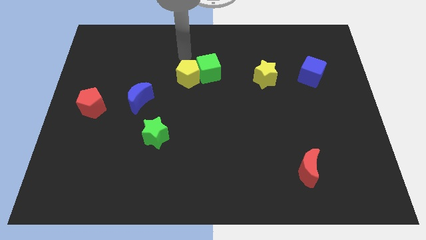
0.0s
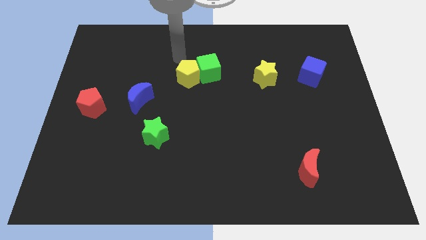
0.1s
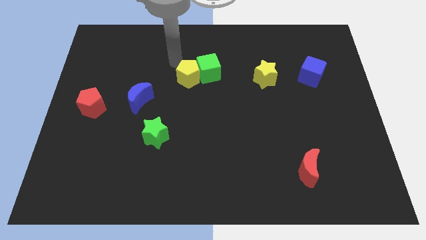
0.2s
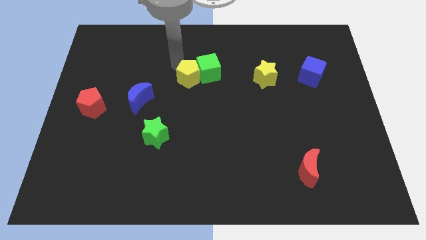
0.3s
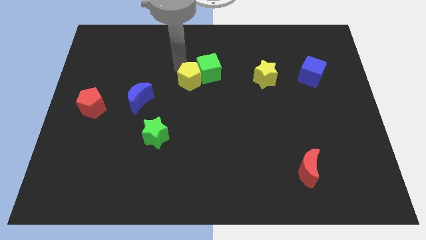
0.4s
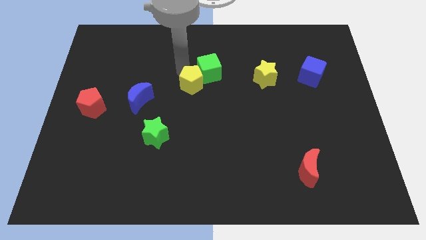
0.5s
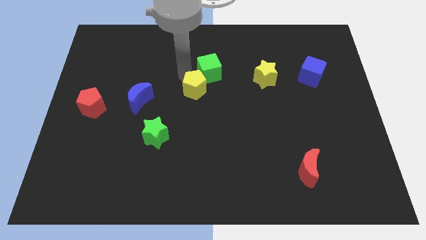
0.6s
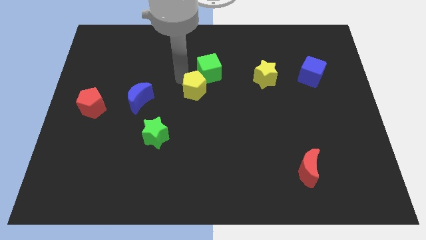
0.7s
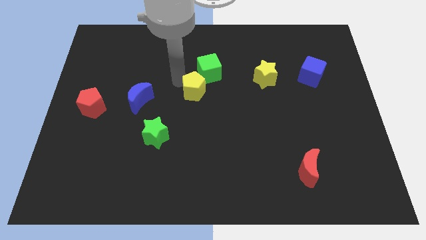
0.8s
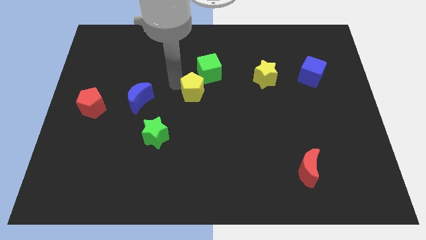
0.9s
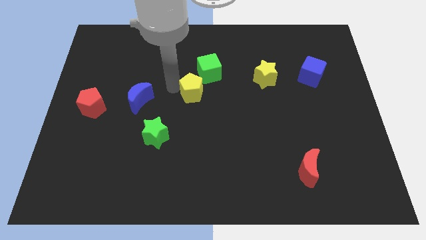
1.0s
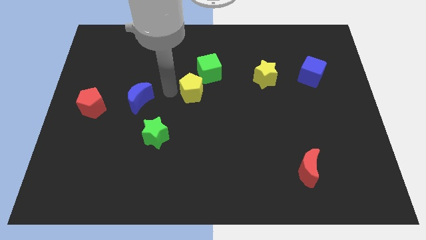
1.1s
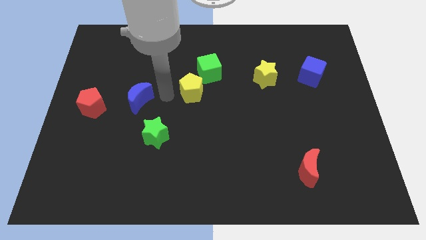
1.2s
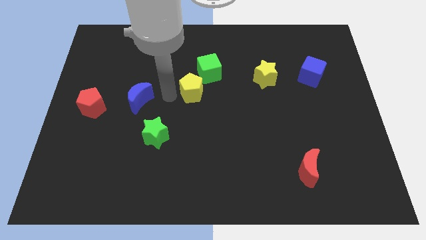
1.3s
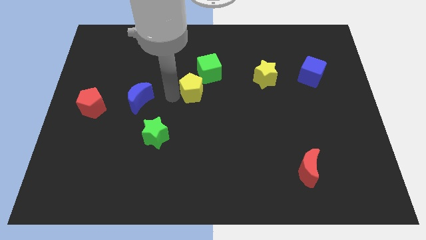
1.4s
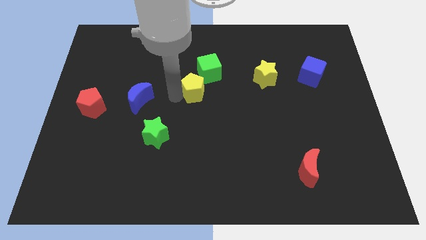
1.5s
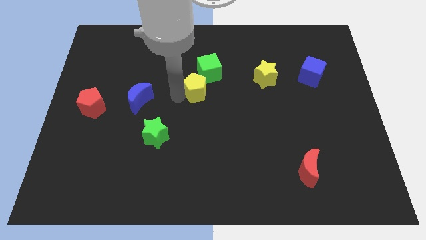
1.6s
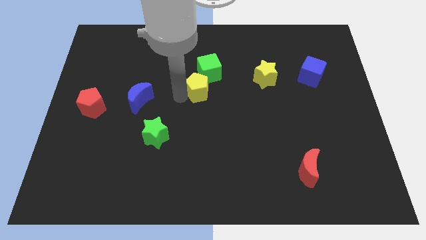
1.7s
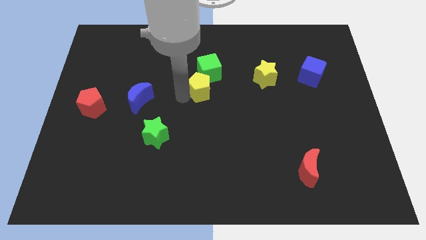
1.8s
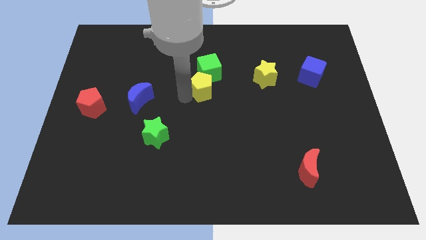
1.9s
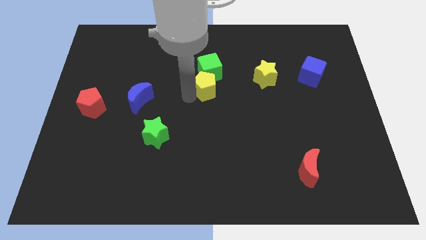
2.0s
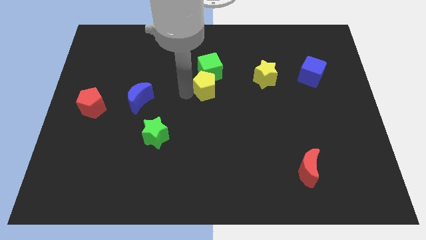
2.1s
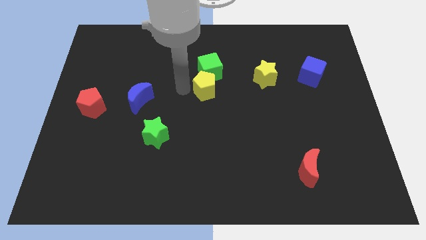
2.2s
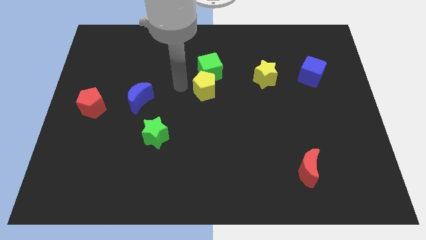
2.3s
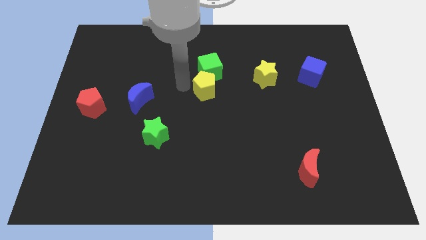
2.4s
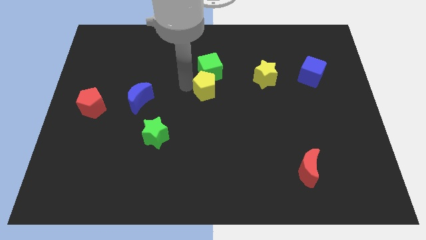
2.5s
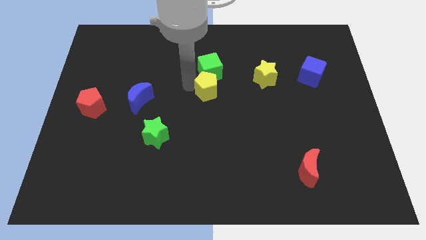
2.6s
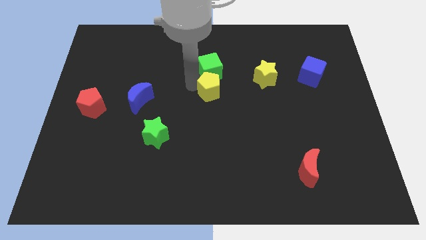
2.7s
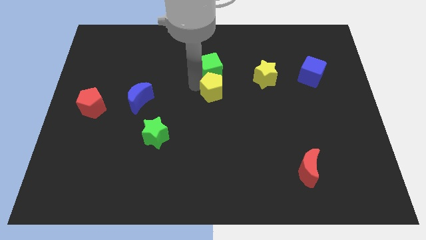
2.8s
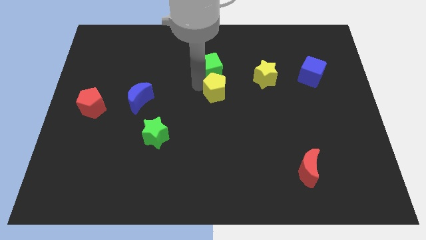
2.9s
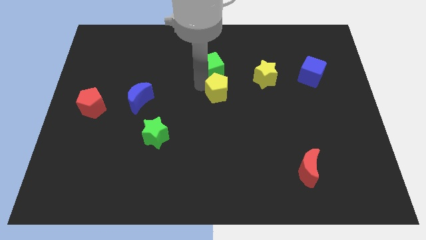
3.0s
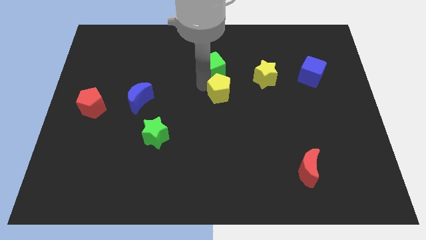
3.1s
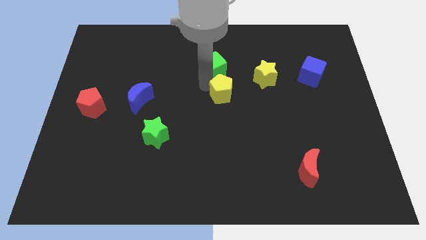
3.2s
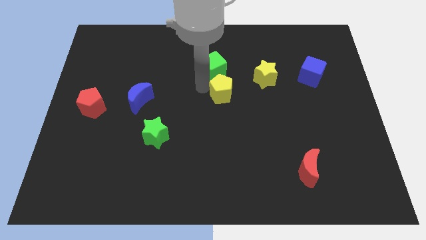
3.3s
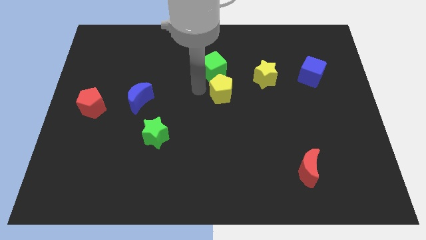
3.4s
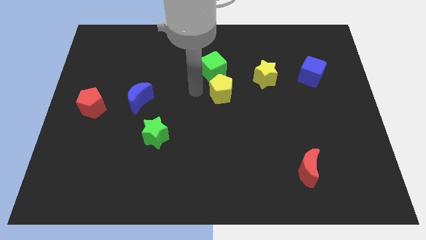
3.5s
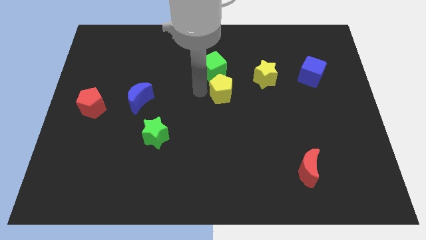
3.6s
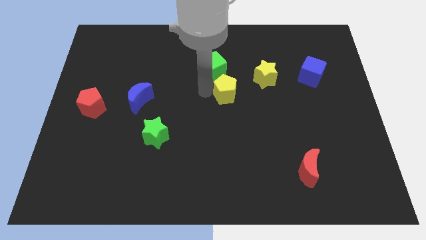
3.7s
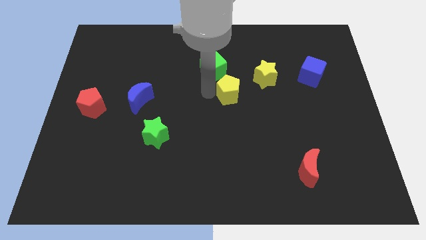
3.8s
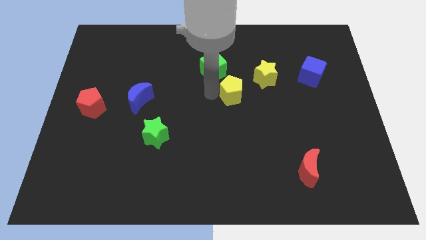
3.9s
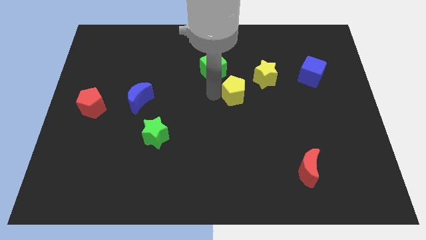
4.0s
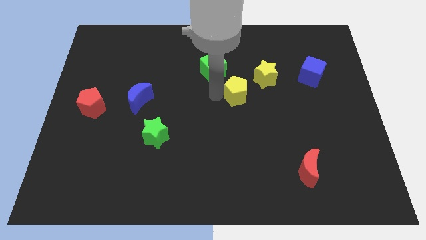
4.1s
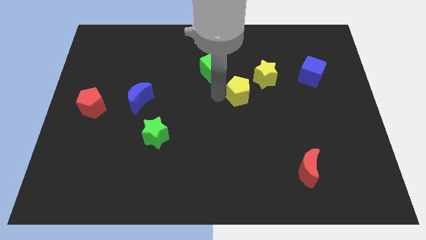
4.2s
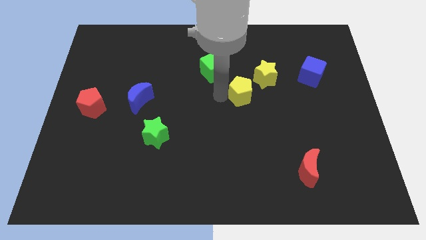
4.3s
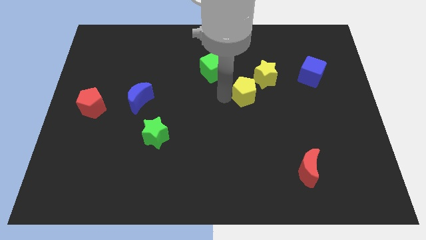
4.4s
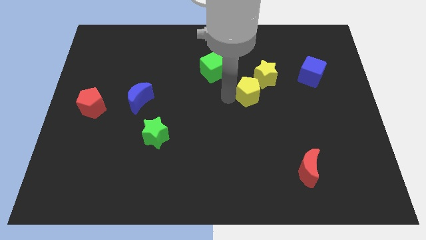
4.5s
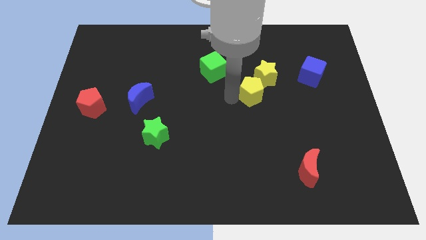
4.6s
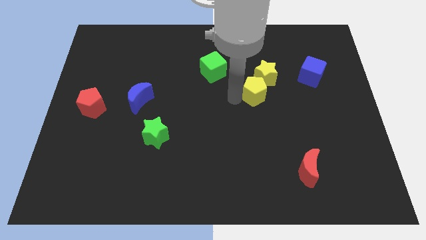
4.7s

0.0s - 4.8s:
put the yellow pentagon next to the yellow star

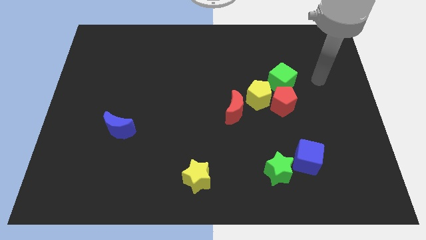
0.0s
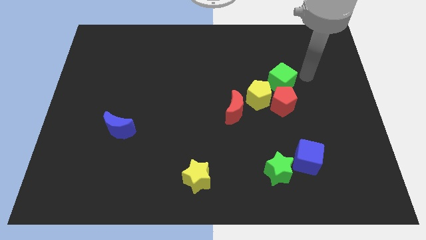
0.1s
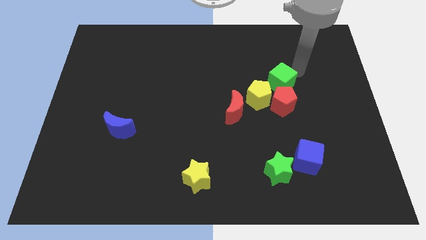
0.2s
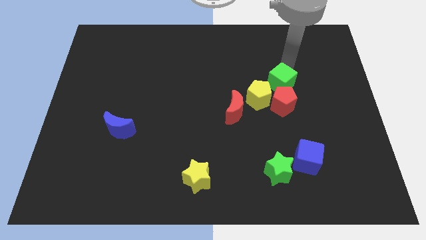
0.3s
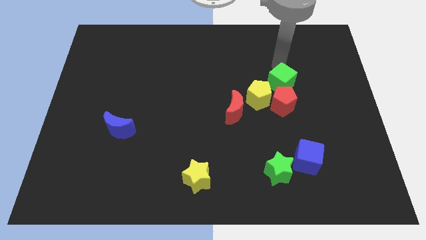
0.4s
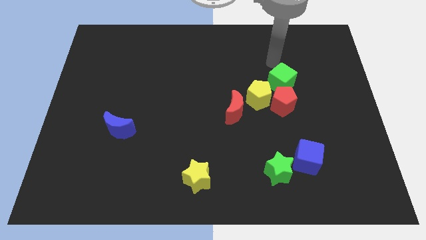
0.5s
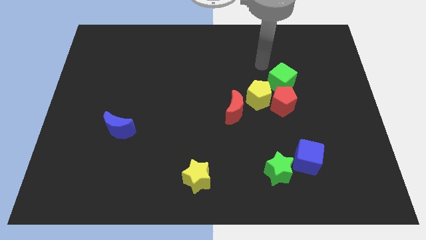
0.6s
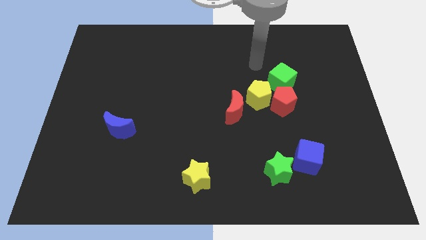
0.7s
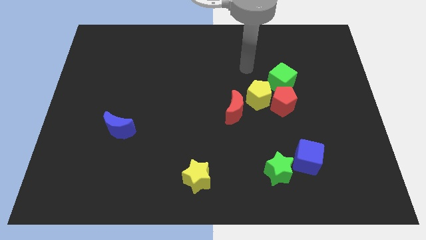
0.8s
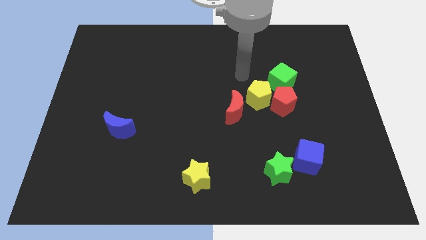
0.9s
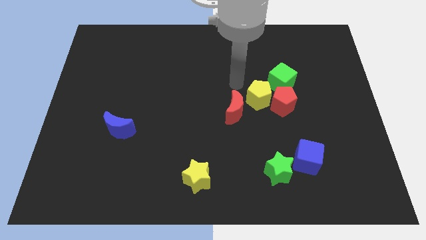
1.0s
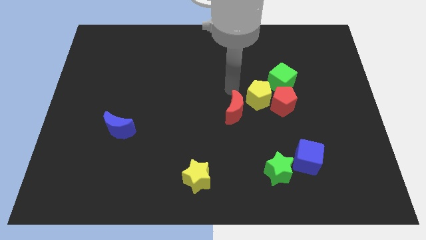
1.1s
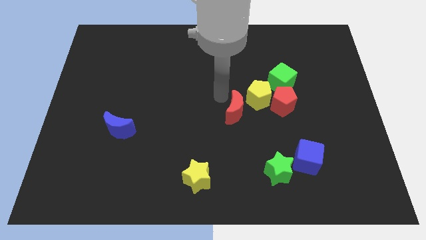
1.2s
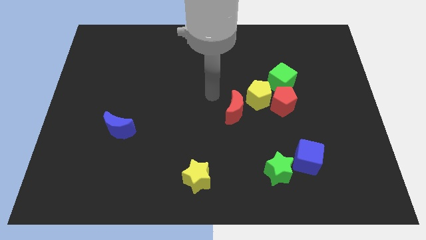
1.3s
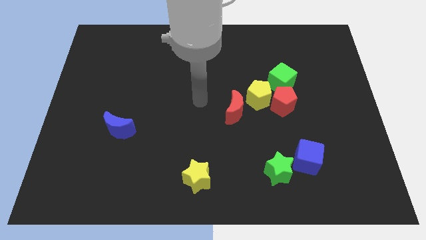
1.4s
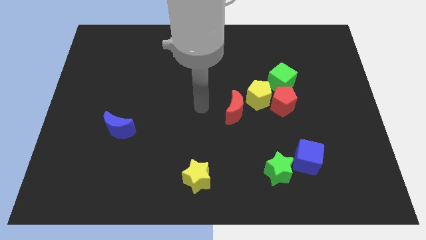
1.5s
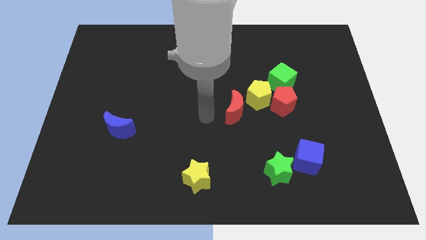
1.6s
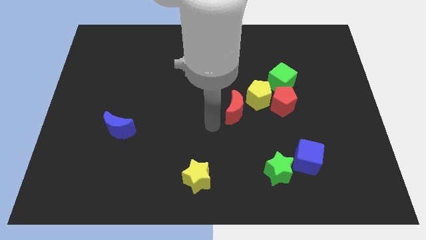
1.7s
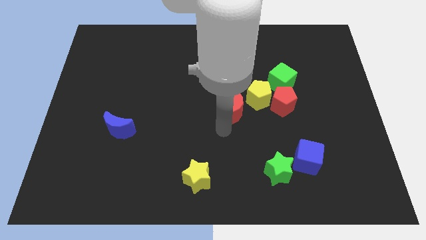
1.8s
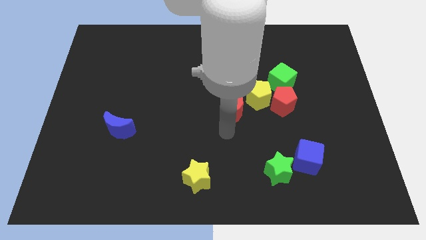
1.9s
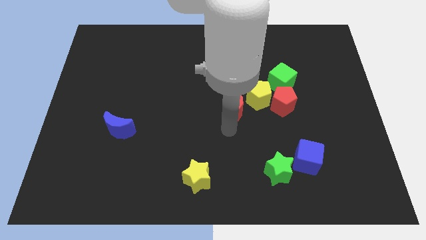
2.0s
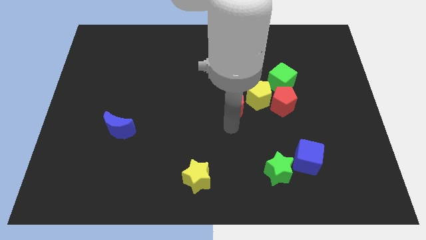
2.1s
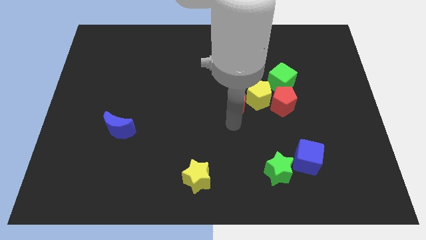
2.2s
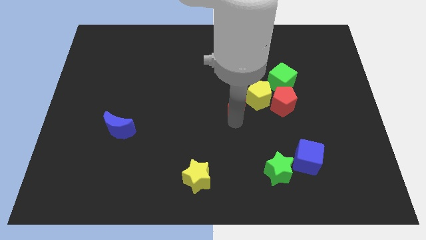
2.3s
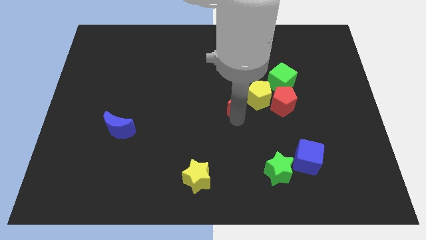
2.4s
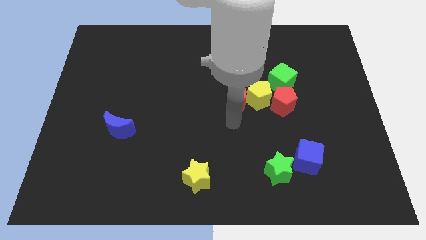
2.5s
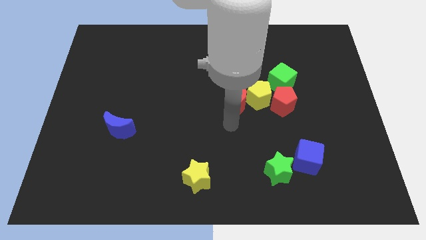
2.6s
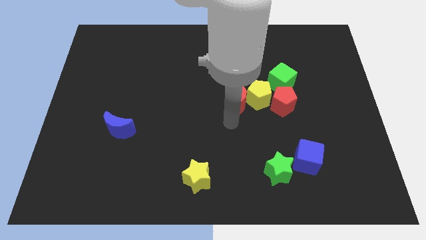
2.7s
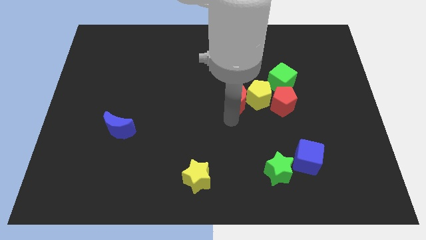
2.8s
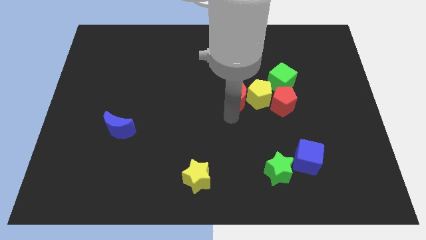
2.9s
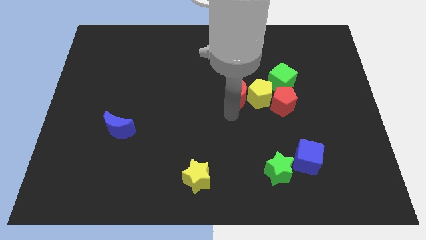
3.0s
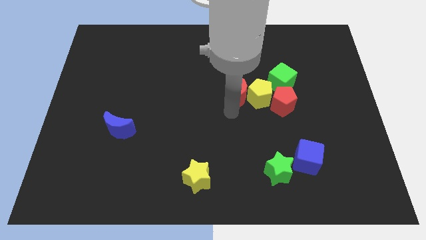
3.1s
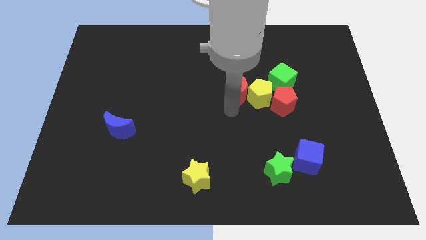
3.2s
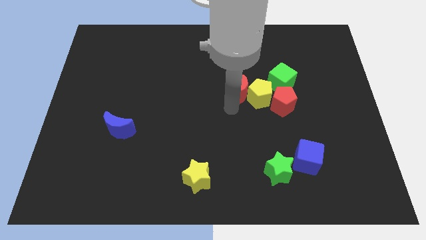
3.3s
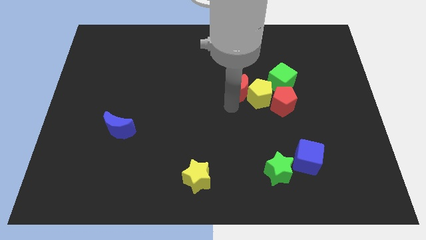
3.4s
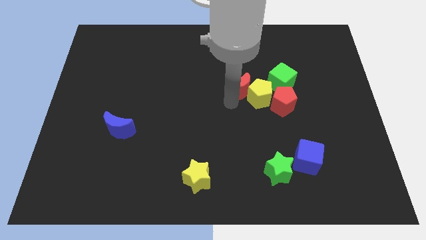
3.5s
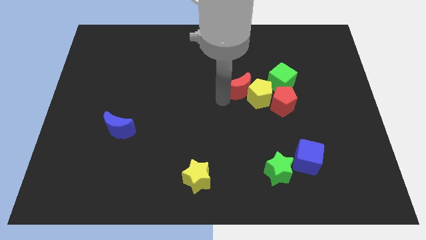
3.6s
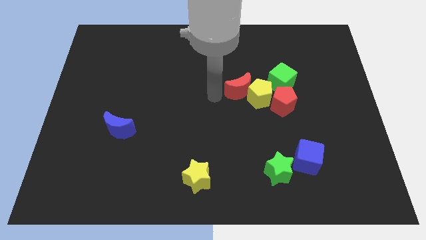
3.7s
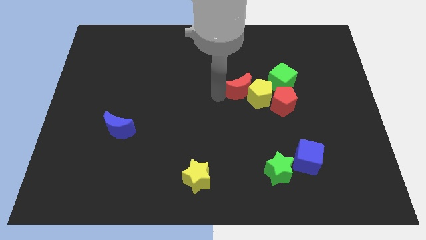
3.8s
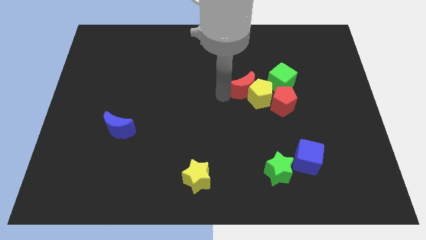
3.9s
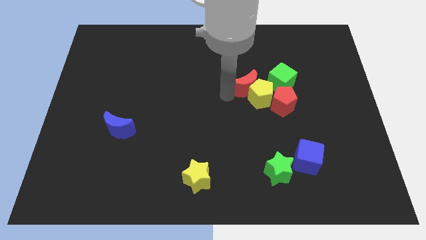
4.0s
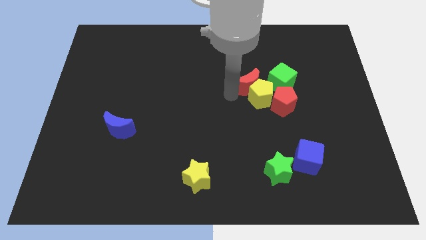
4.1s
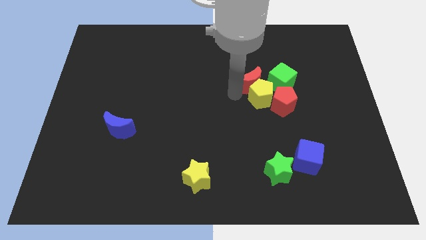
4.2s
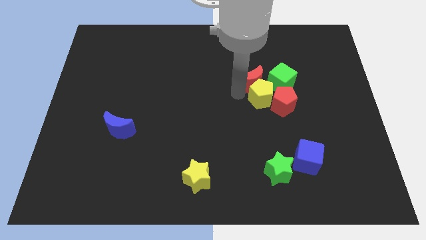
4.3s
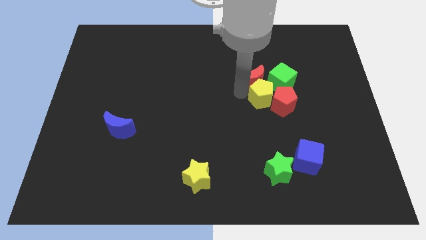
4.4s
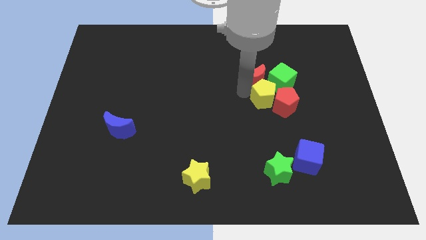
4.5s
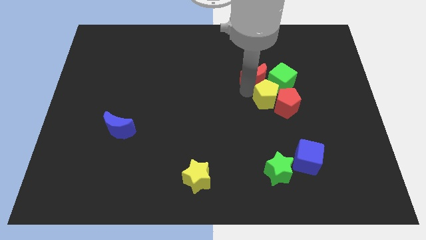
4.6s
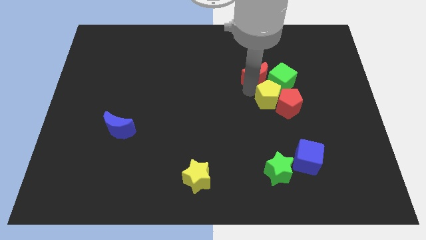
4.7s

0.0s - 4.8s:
slide the red moon to the green cube
